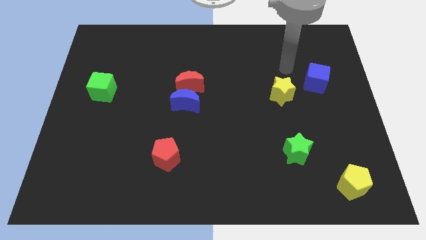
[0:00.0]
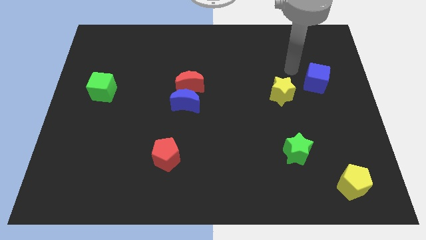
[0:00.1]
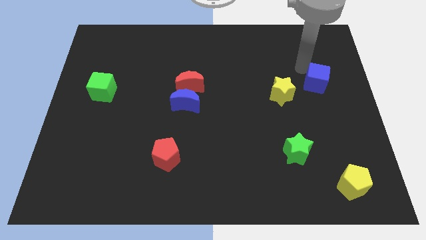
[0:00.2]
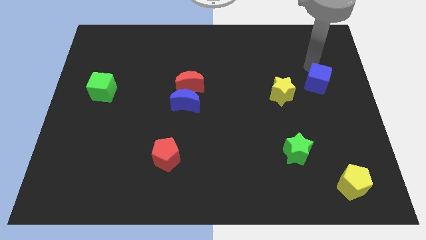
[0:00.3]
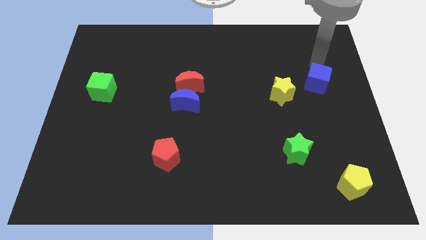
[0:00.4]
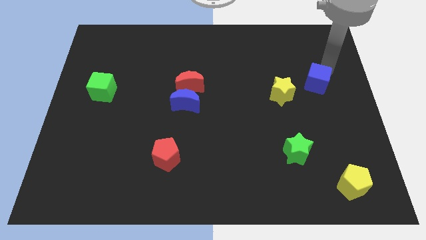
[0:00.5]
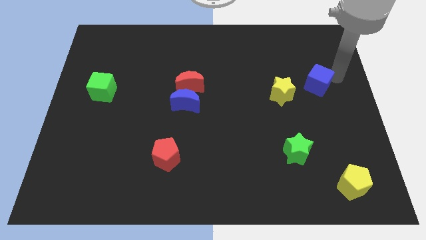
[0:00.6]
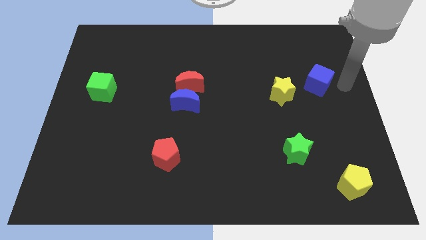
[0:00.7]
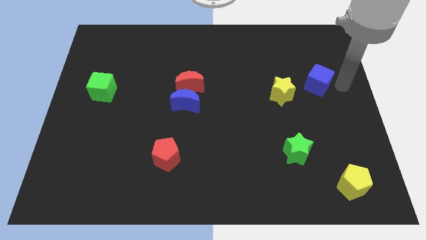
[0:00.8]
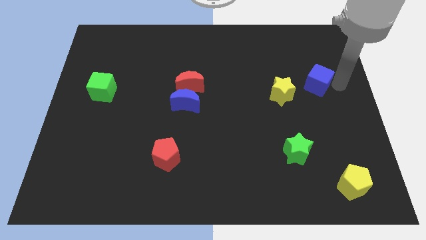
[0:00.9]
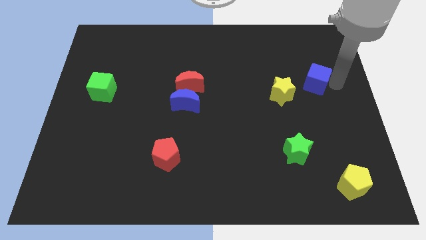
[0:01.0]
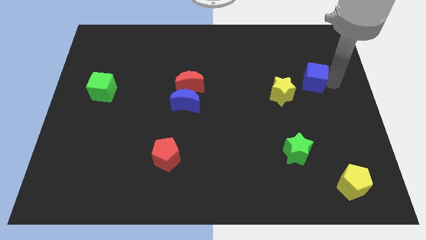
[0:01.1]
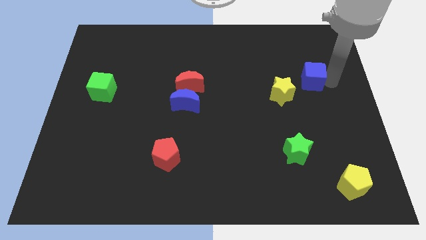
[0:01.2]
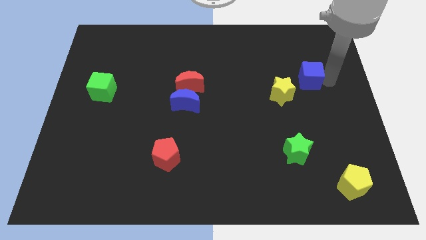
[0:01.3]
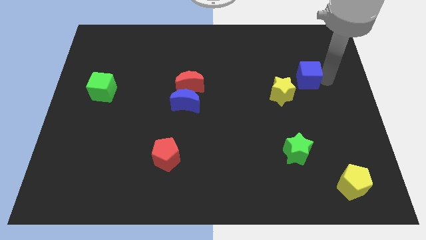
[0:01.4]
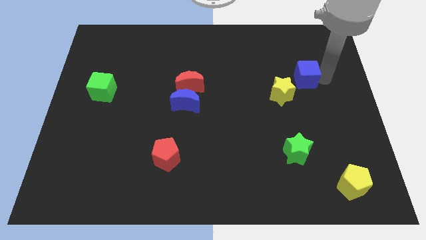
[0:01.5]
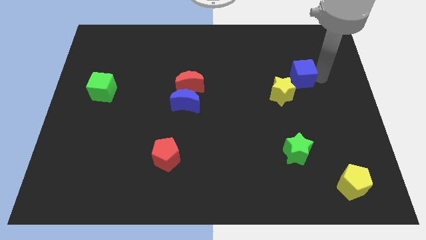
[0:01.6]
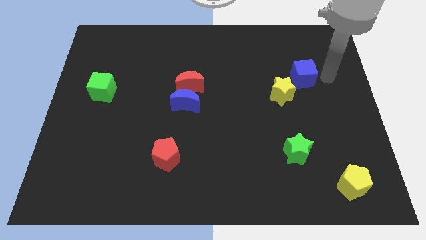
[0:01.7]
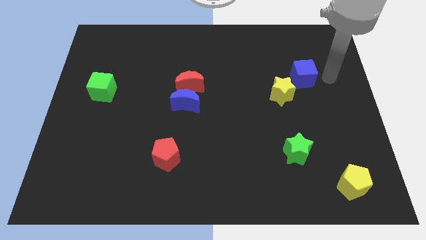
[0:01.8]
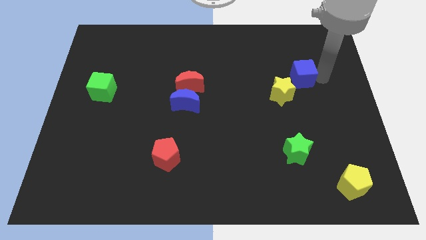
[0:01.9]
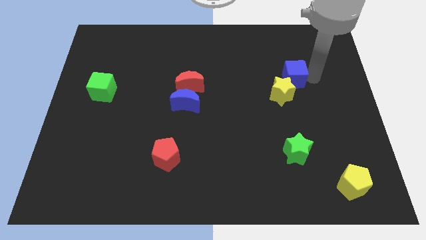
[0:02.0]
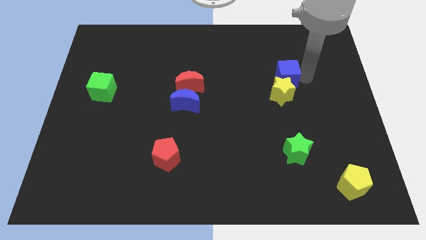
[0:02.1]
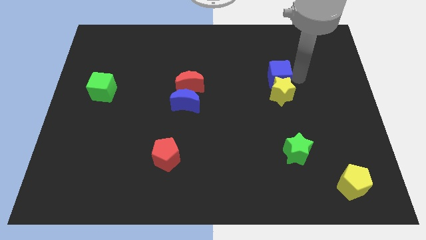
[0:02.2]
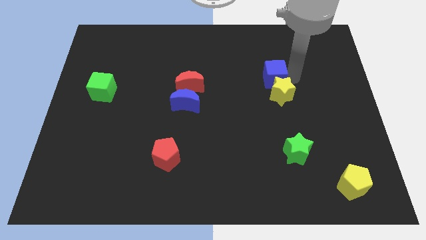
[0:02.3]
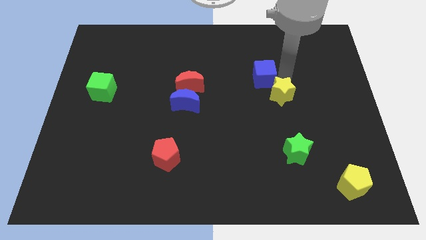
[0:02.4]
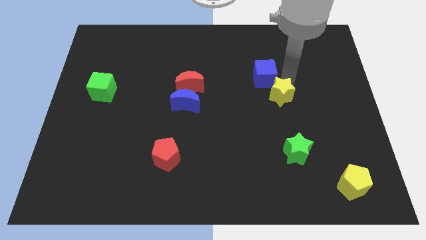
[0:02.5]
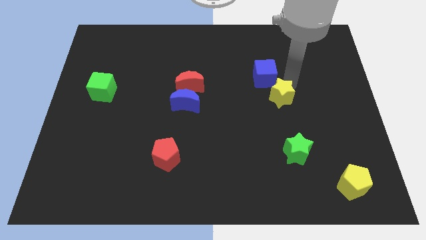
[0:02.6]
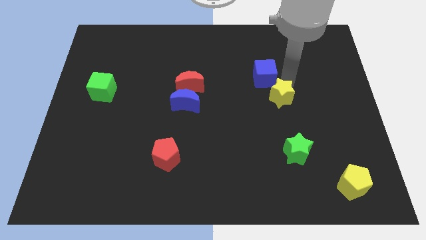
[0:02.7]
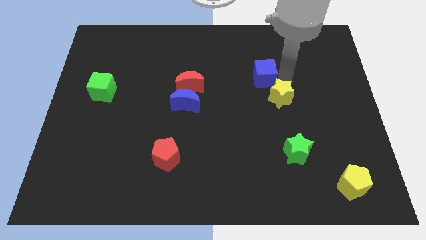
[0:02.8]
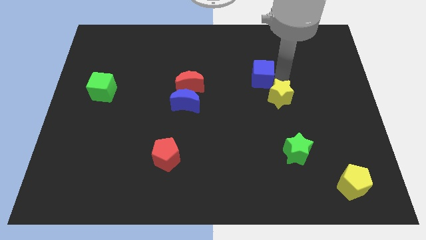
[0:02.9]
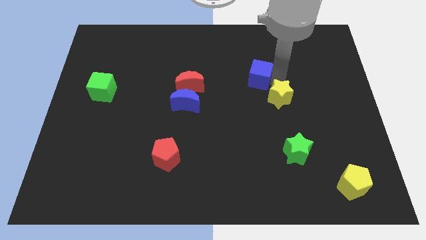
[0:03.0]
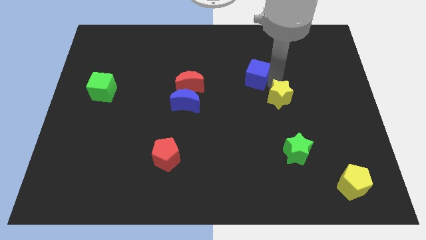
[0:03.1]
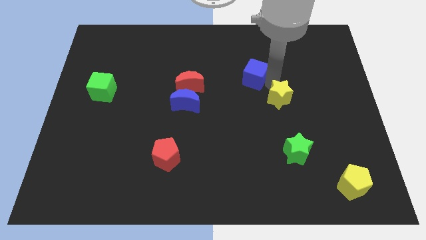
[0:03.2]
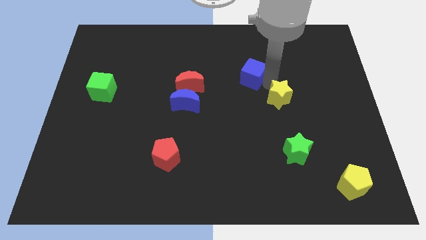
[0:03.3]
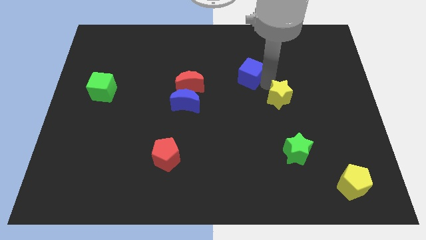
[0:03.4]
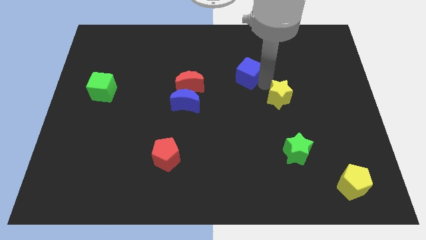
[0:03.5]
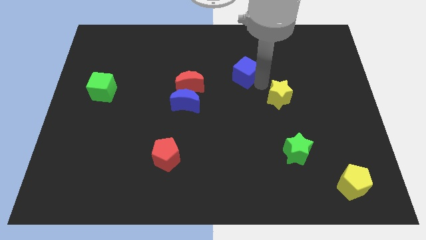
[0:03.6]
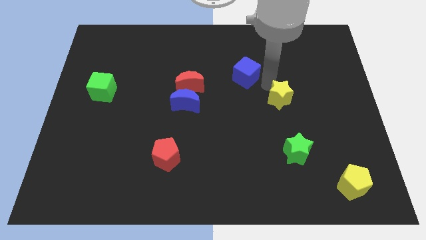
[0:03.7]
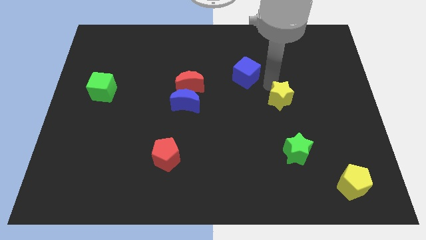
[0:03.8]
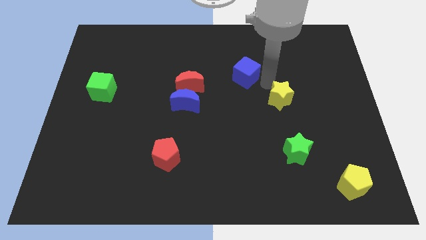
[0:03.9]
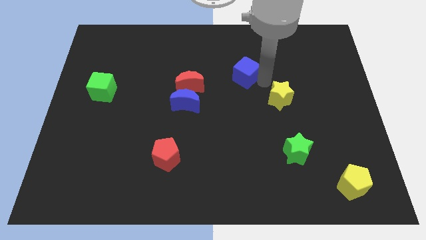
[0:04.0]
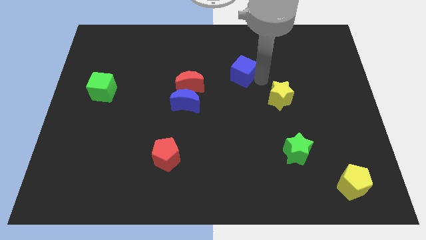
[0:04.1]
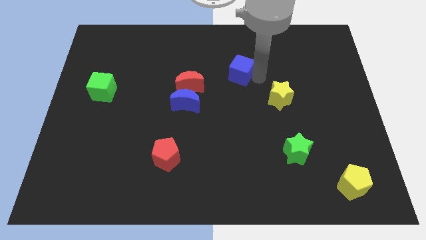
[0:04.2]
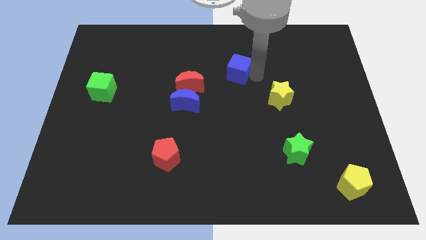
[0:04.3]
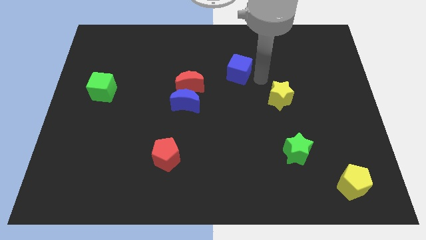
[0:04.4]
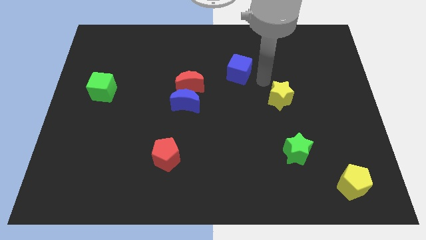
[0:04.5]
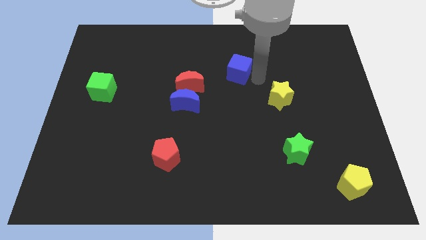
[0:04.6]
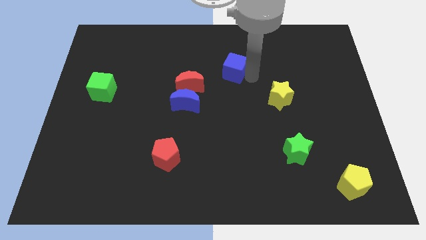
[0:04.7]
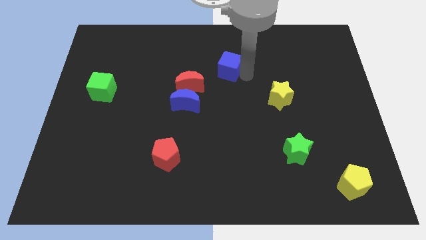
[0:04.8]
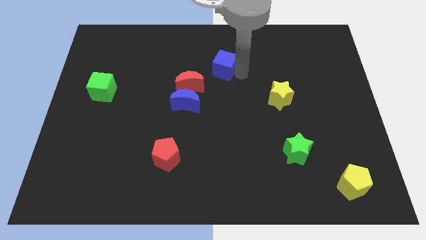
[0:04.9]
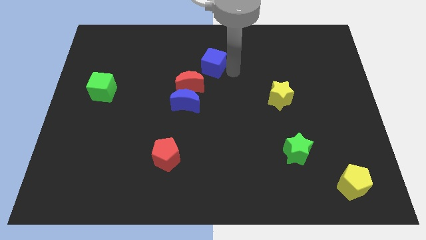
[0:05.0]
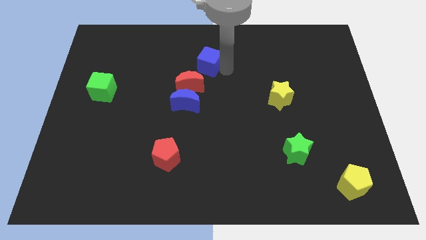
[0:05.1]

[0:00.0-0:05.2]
slide the blue cube above the red moon

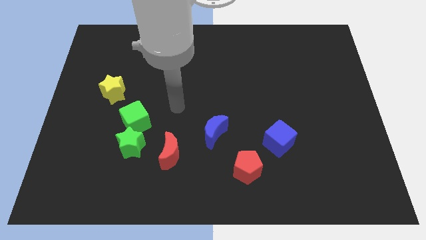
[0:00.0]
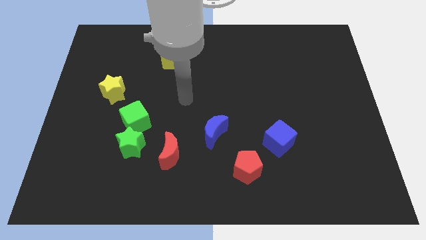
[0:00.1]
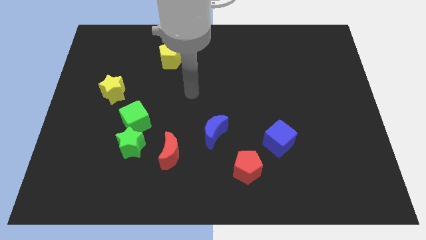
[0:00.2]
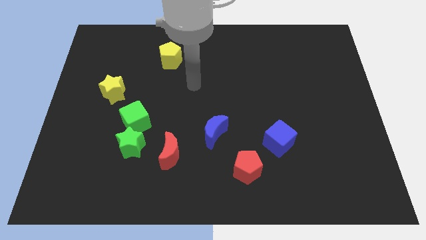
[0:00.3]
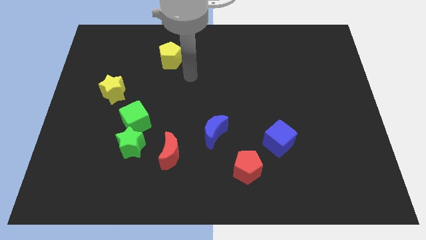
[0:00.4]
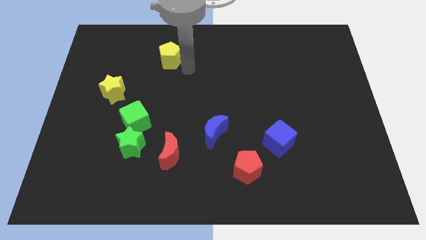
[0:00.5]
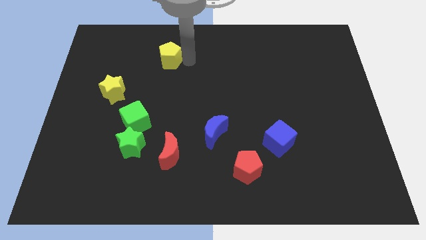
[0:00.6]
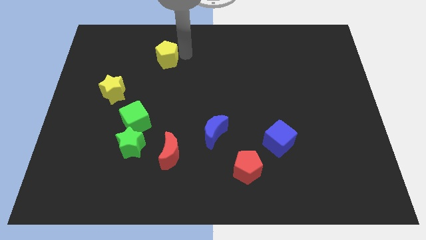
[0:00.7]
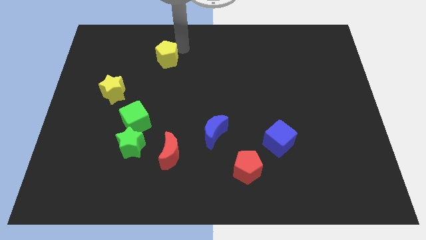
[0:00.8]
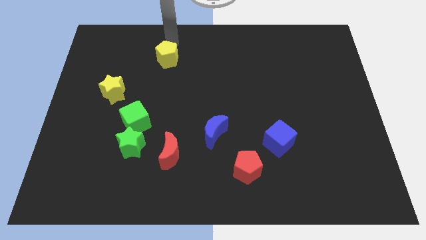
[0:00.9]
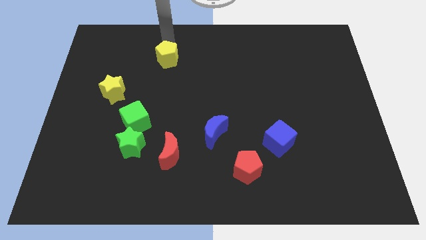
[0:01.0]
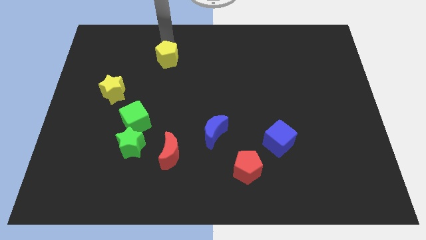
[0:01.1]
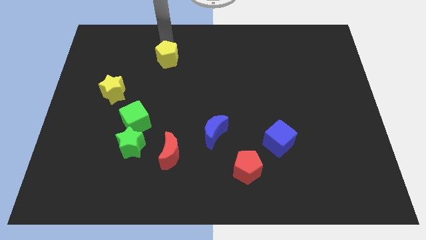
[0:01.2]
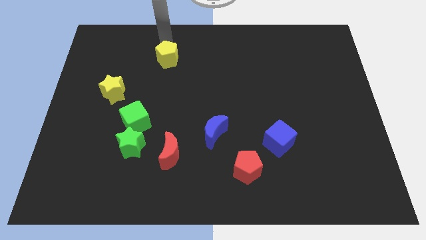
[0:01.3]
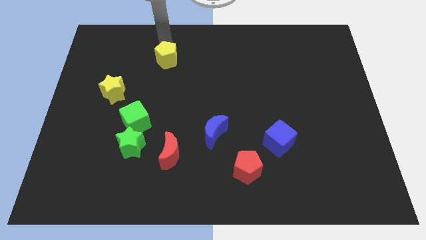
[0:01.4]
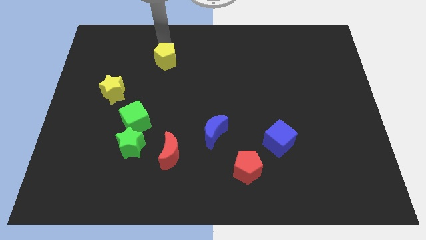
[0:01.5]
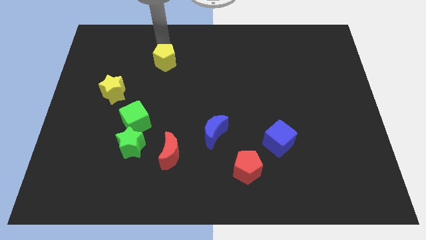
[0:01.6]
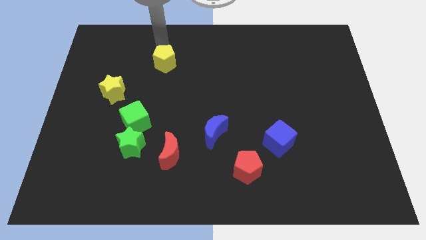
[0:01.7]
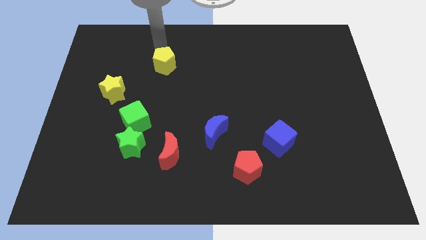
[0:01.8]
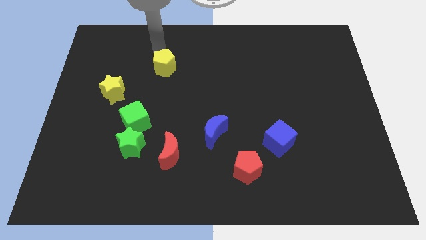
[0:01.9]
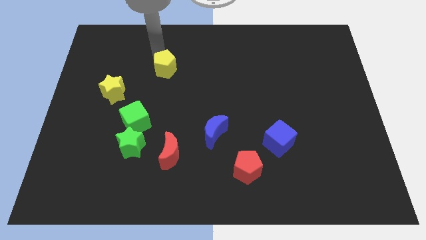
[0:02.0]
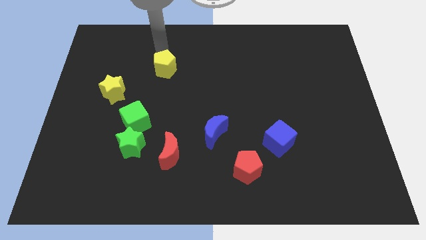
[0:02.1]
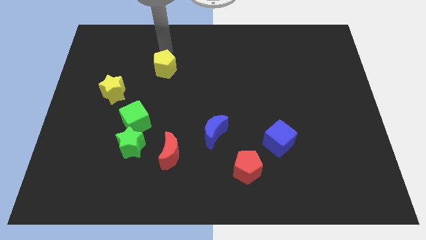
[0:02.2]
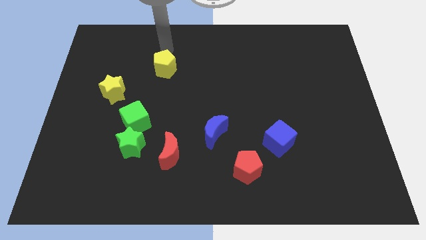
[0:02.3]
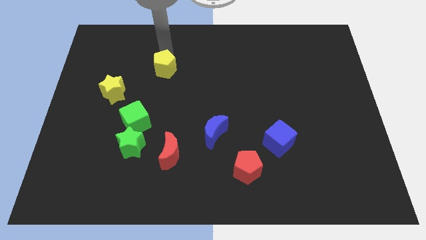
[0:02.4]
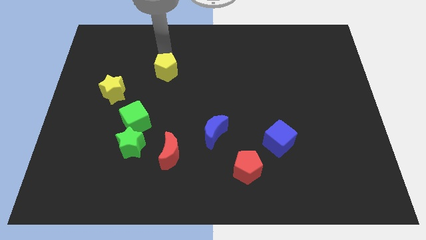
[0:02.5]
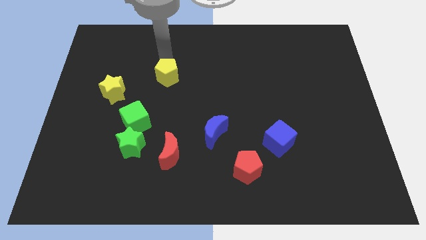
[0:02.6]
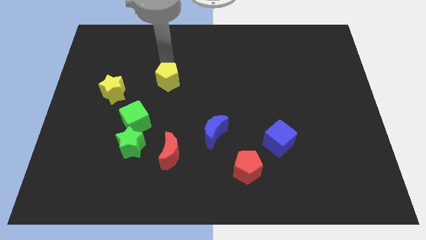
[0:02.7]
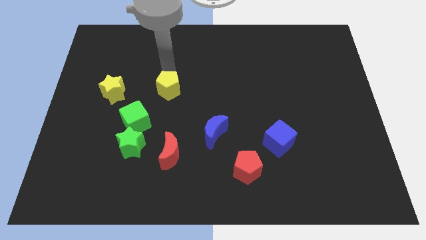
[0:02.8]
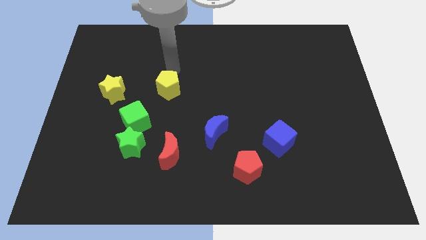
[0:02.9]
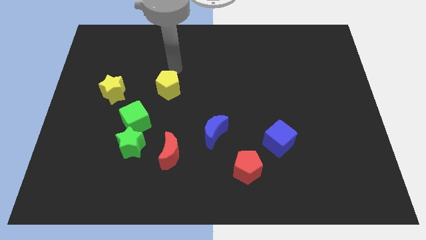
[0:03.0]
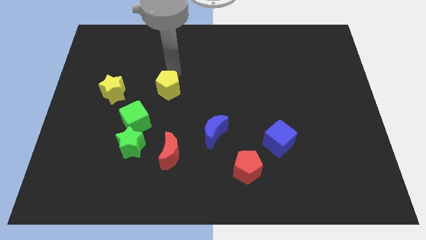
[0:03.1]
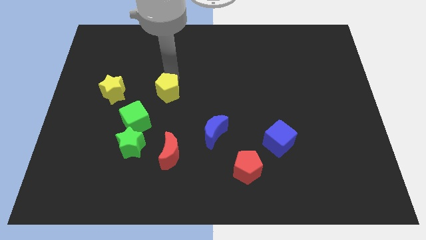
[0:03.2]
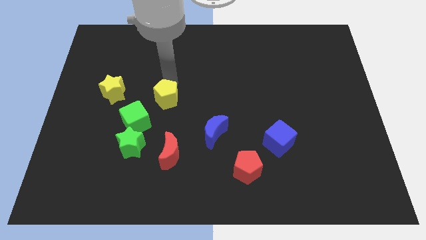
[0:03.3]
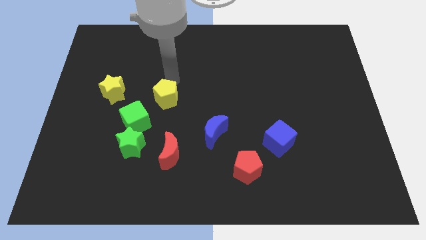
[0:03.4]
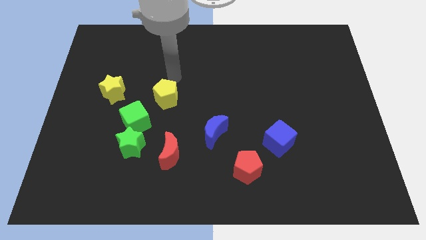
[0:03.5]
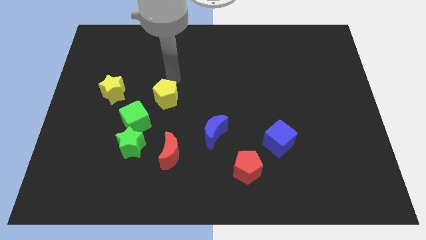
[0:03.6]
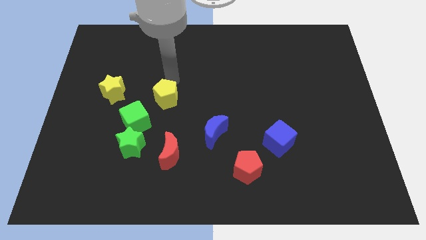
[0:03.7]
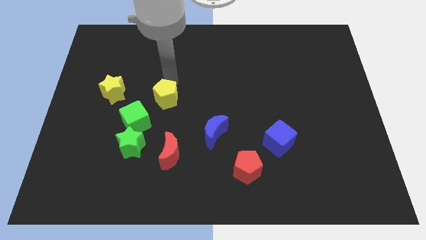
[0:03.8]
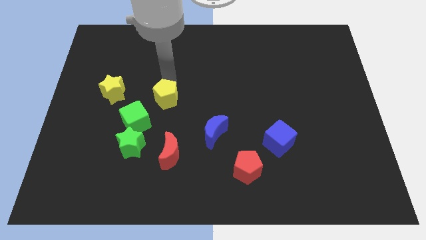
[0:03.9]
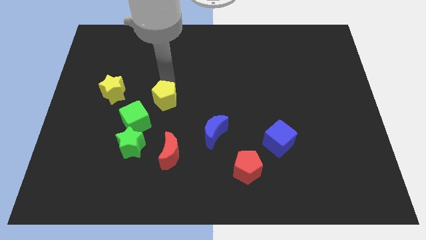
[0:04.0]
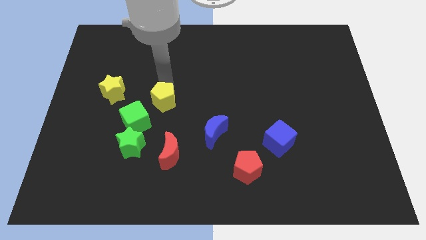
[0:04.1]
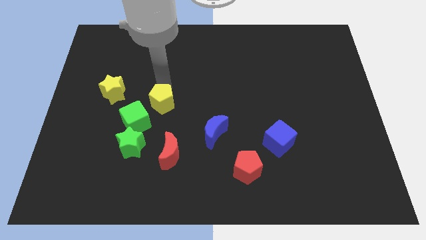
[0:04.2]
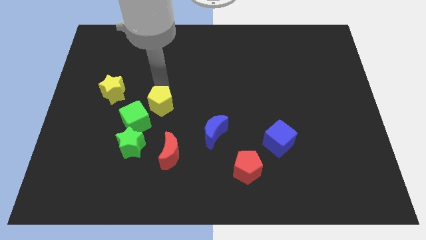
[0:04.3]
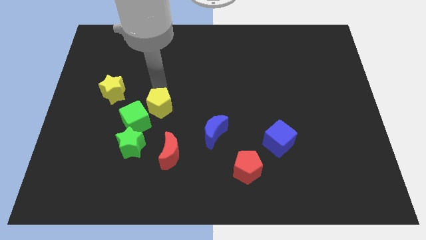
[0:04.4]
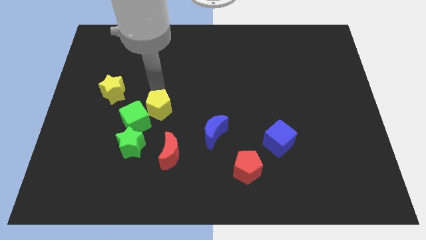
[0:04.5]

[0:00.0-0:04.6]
slide the yellow pentagon diagonally up and to the right of the green star
